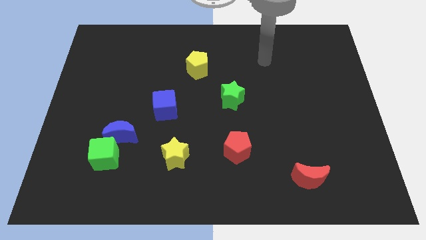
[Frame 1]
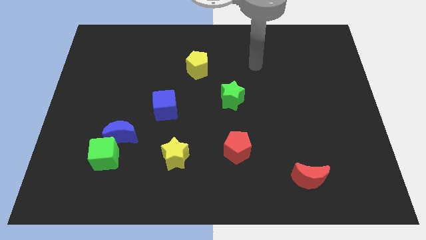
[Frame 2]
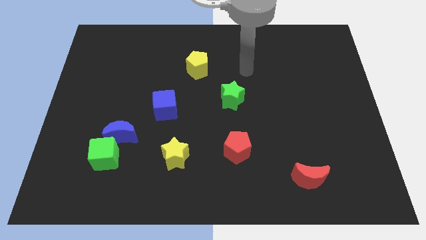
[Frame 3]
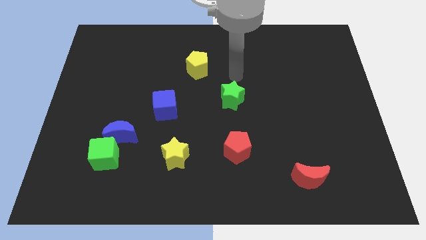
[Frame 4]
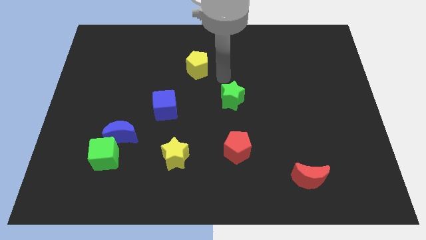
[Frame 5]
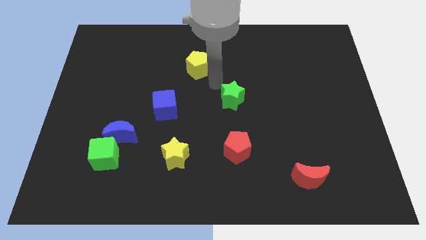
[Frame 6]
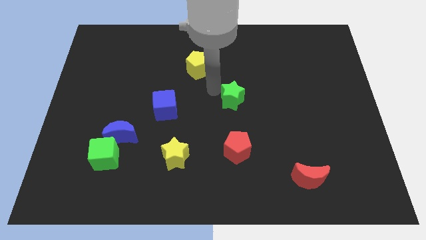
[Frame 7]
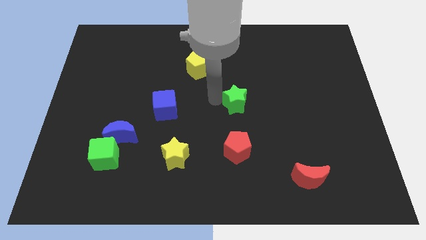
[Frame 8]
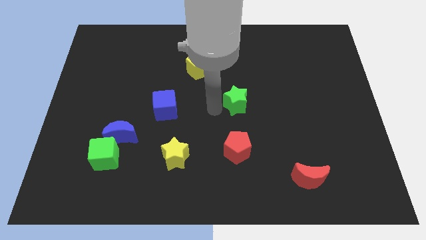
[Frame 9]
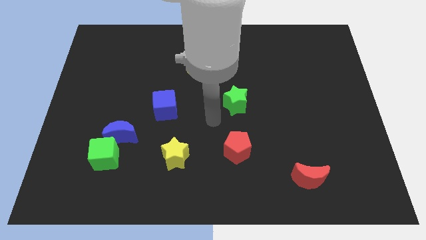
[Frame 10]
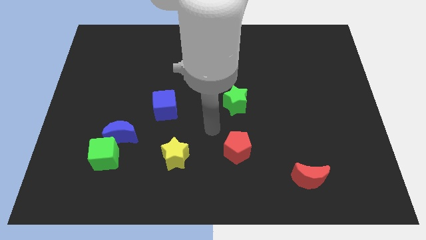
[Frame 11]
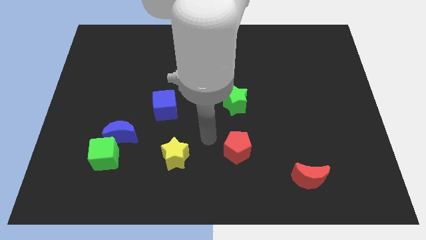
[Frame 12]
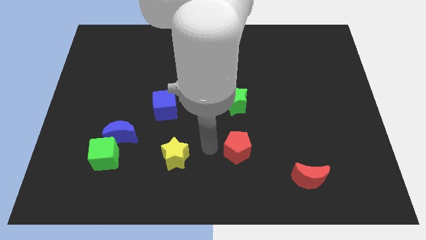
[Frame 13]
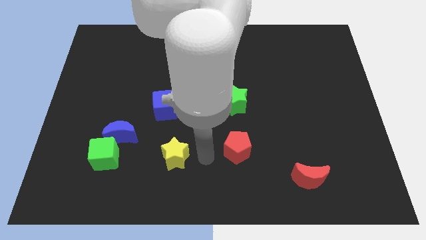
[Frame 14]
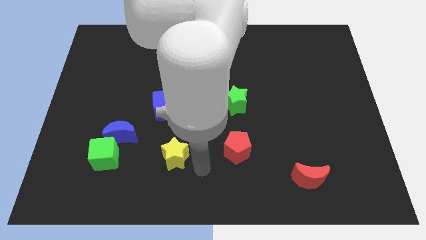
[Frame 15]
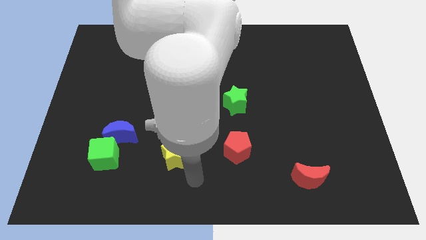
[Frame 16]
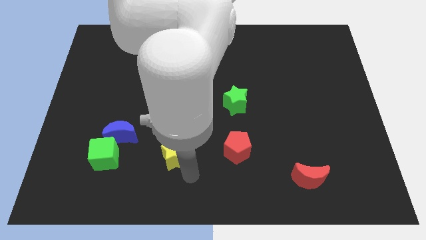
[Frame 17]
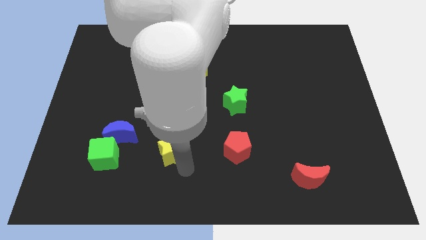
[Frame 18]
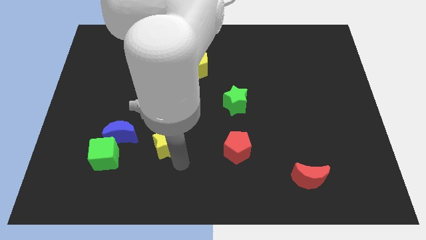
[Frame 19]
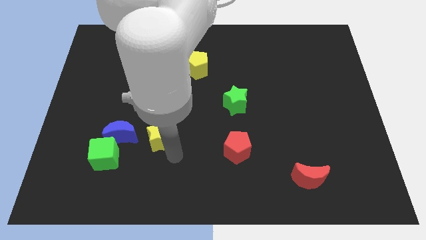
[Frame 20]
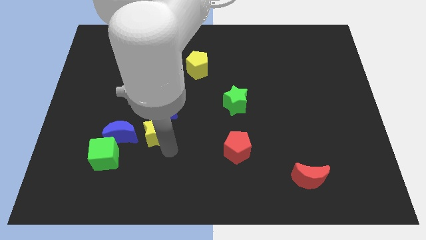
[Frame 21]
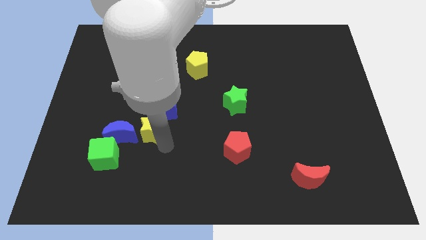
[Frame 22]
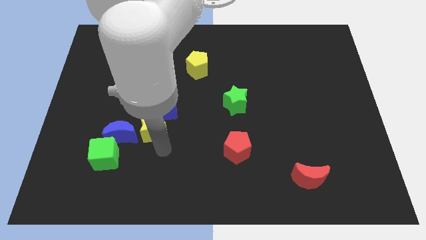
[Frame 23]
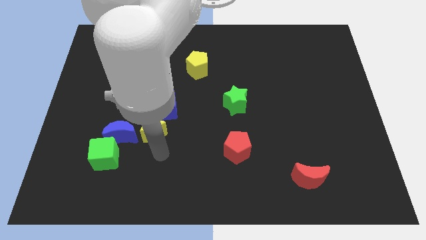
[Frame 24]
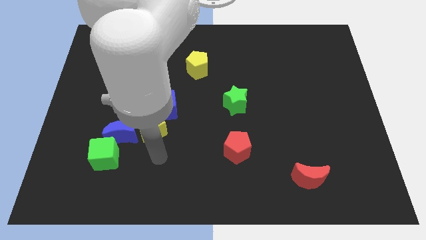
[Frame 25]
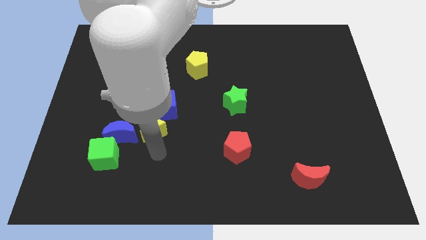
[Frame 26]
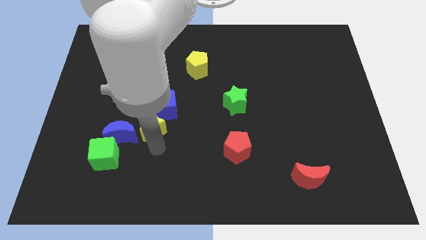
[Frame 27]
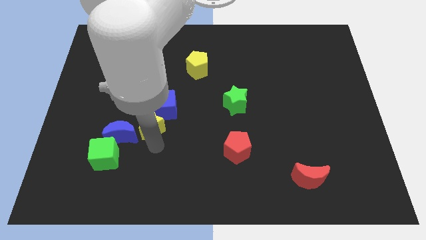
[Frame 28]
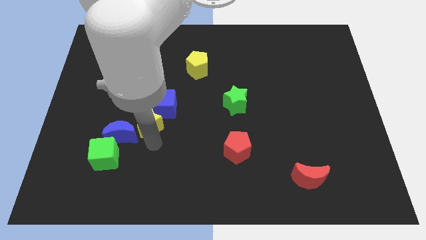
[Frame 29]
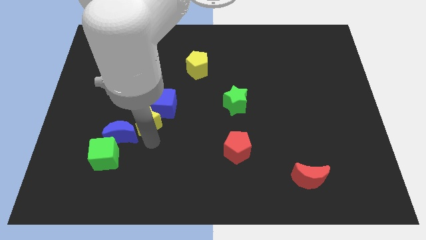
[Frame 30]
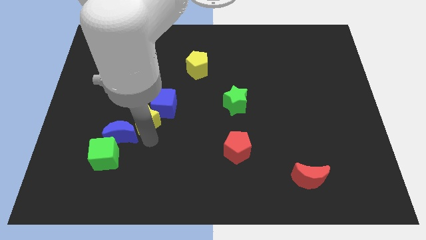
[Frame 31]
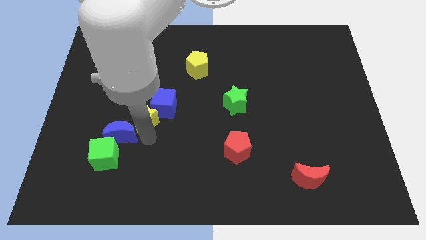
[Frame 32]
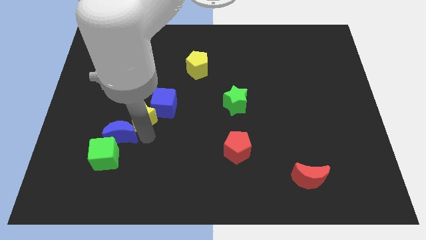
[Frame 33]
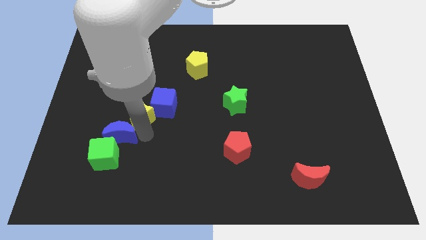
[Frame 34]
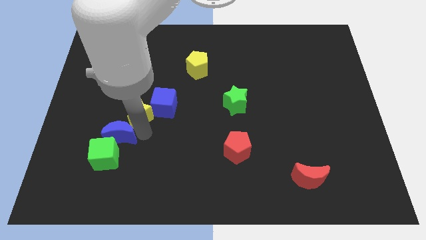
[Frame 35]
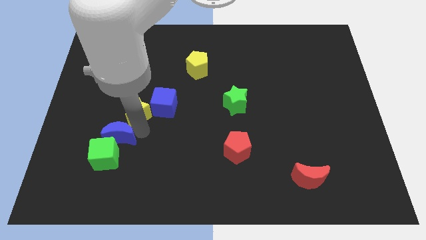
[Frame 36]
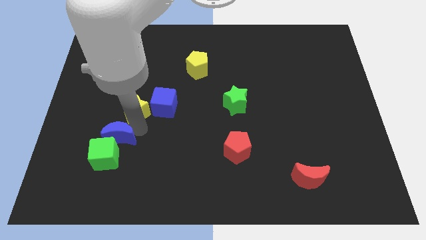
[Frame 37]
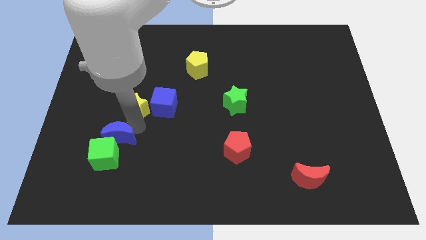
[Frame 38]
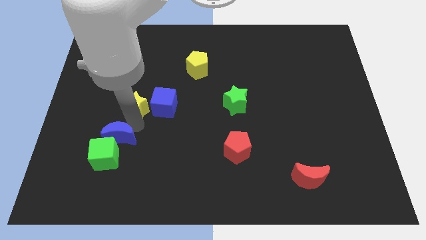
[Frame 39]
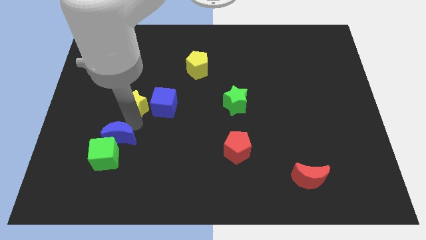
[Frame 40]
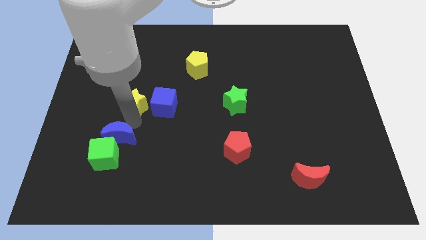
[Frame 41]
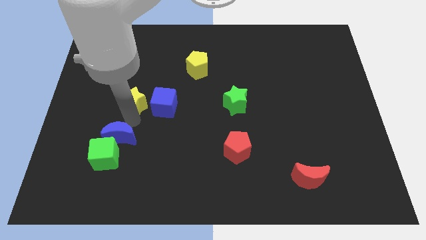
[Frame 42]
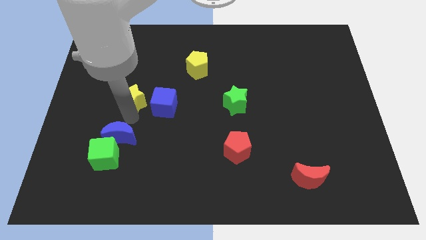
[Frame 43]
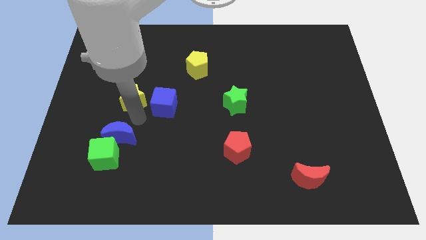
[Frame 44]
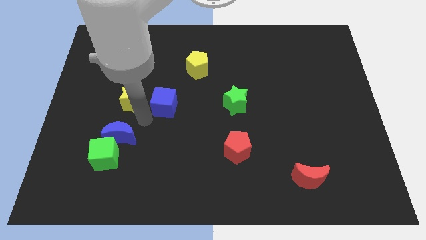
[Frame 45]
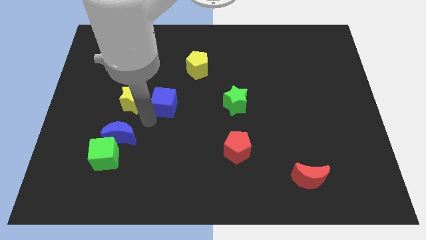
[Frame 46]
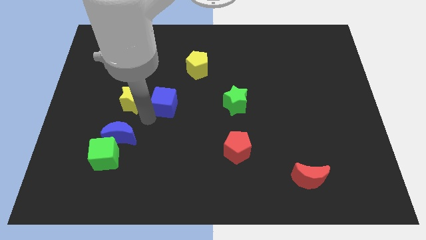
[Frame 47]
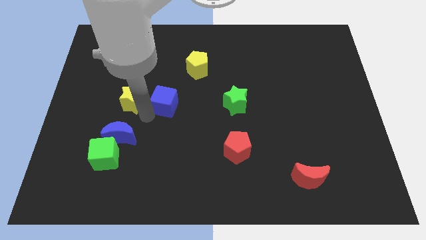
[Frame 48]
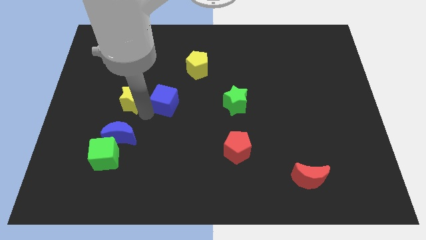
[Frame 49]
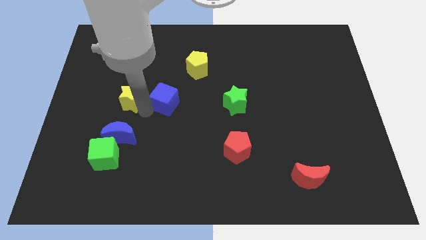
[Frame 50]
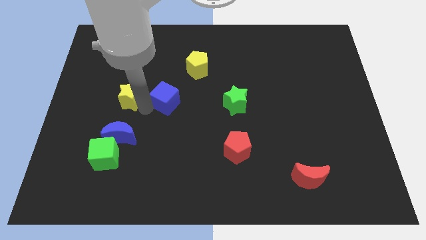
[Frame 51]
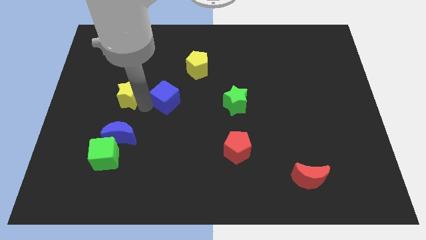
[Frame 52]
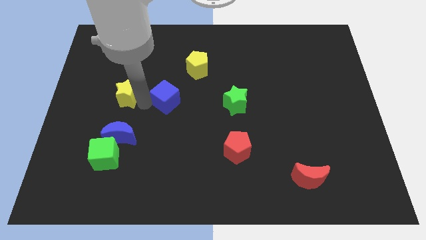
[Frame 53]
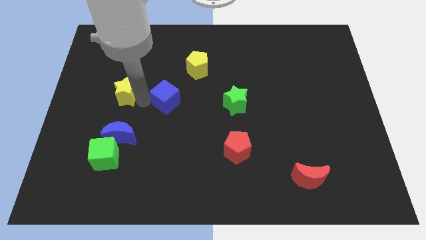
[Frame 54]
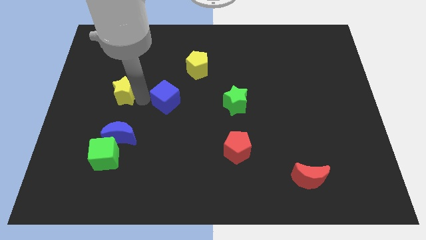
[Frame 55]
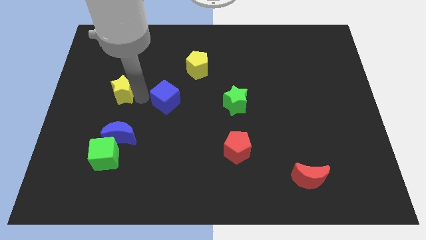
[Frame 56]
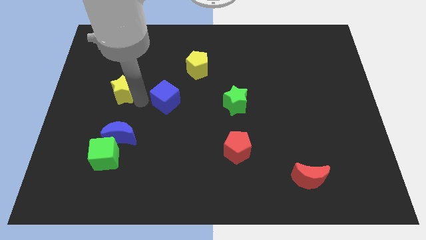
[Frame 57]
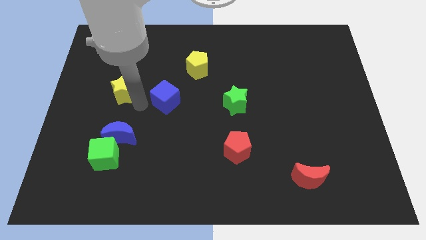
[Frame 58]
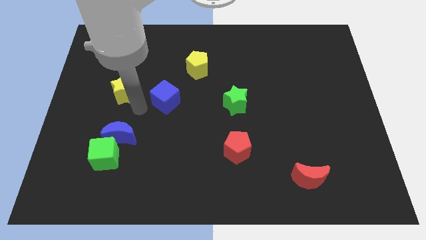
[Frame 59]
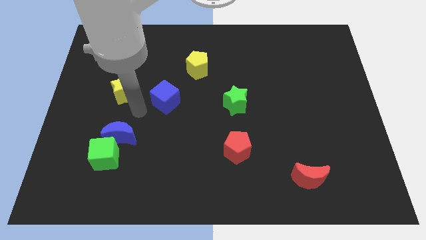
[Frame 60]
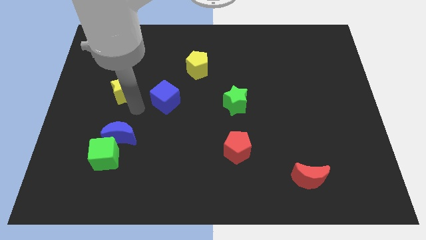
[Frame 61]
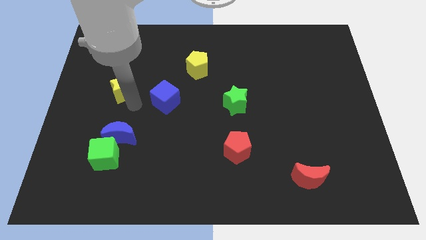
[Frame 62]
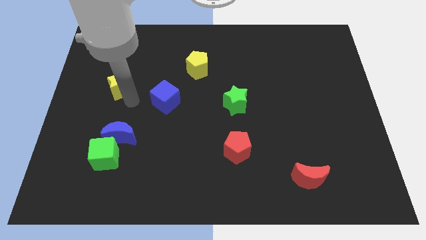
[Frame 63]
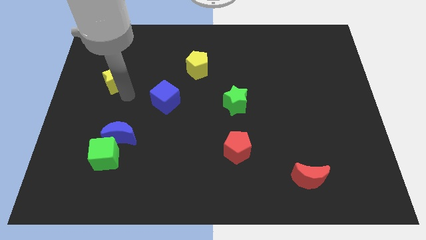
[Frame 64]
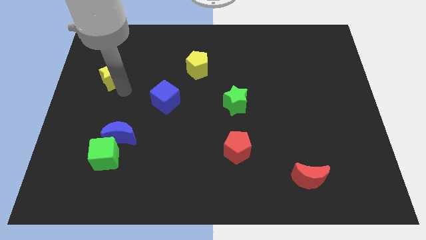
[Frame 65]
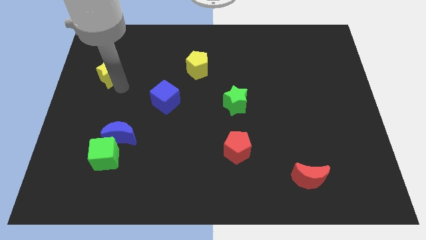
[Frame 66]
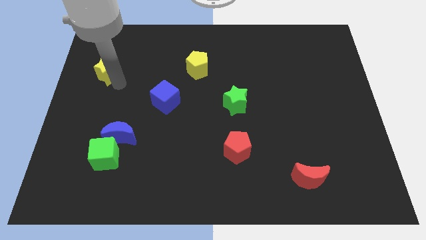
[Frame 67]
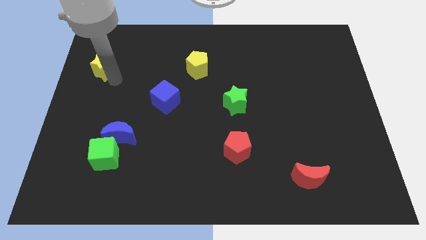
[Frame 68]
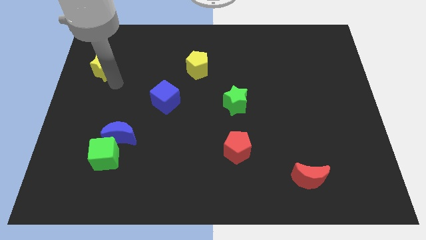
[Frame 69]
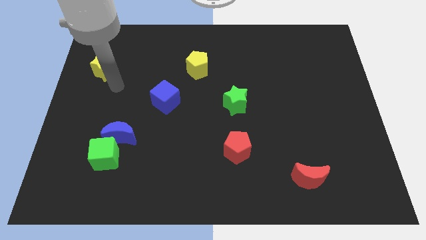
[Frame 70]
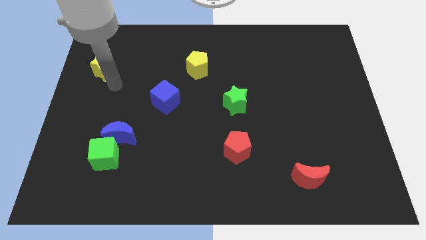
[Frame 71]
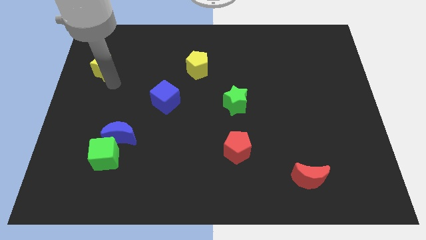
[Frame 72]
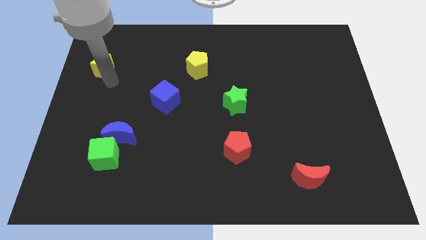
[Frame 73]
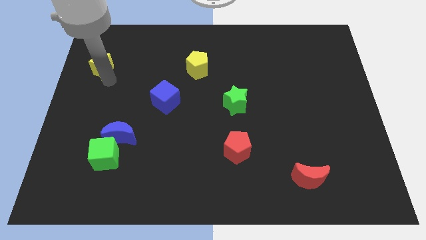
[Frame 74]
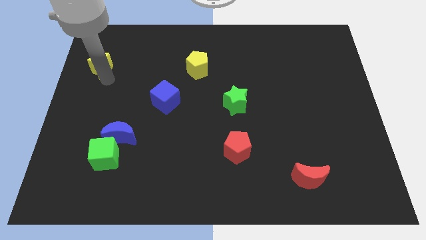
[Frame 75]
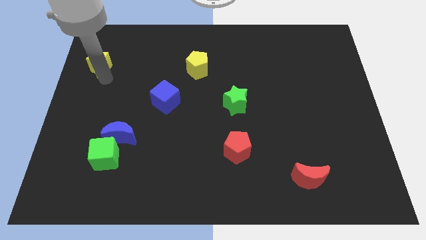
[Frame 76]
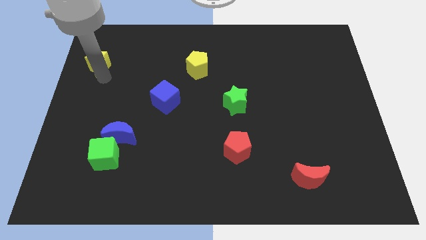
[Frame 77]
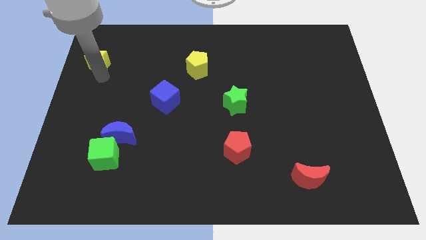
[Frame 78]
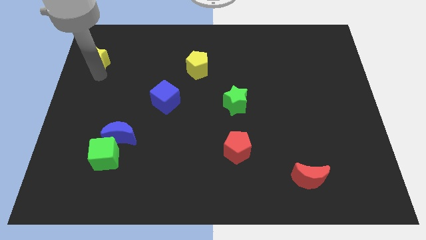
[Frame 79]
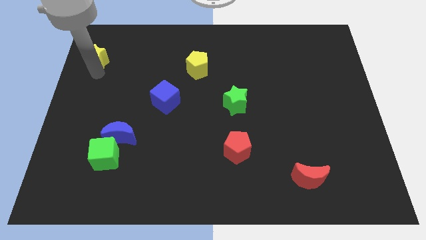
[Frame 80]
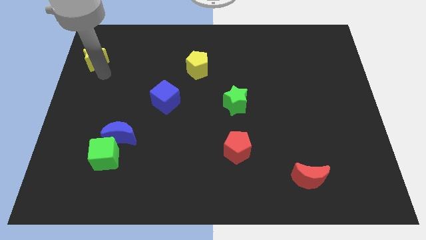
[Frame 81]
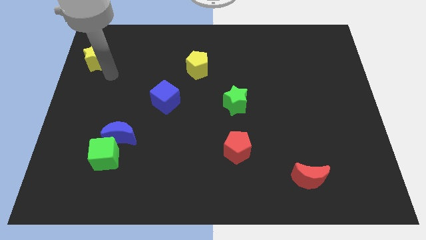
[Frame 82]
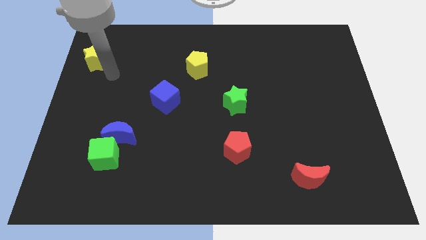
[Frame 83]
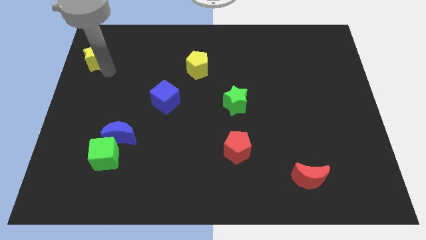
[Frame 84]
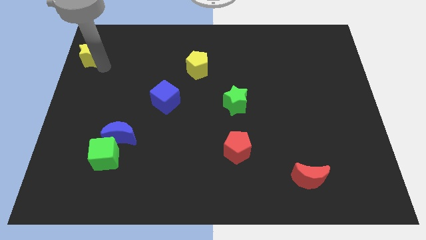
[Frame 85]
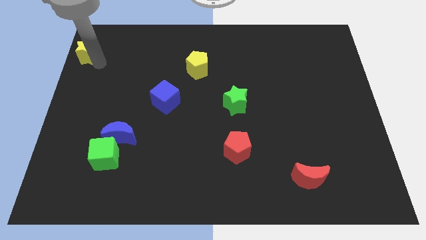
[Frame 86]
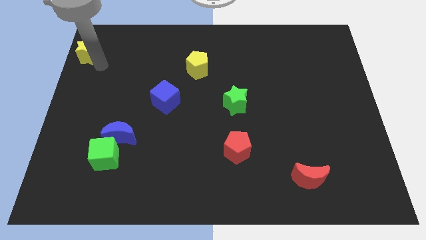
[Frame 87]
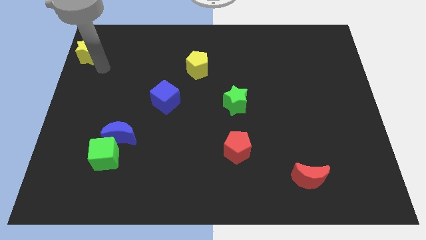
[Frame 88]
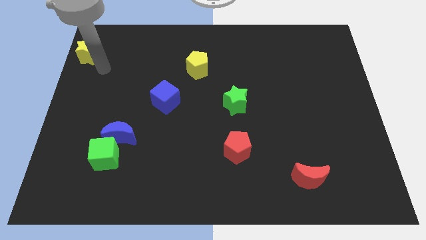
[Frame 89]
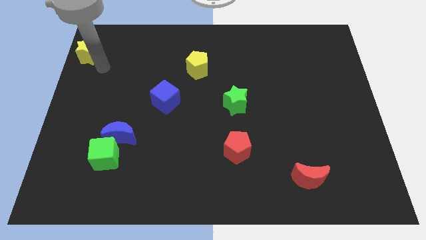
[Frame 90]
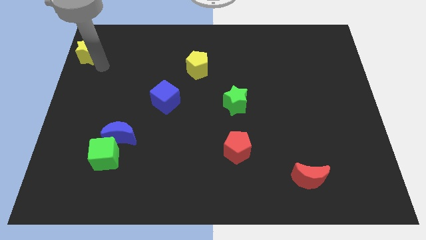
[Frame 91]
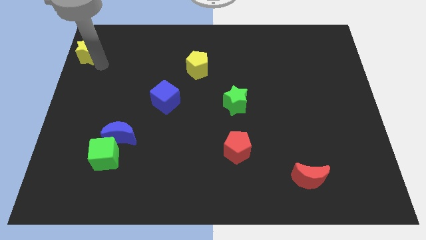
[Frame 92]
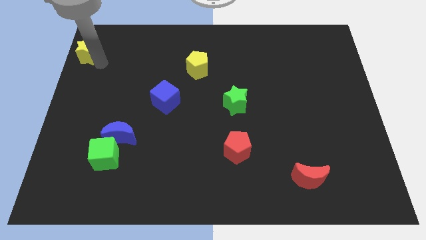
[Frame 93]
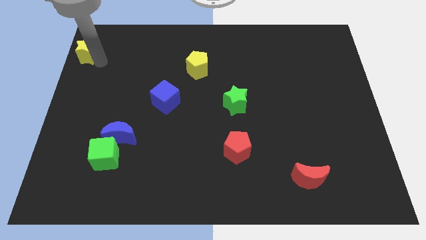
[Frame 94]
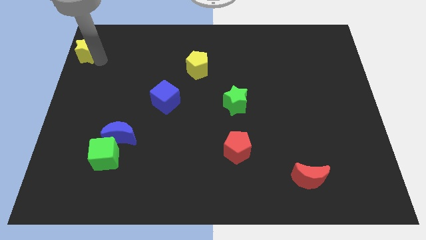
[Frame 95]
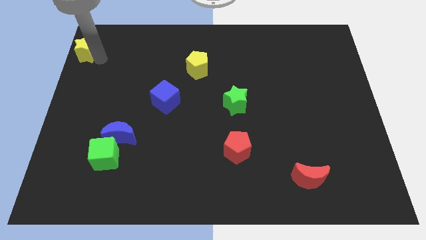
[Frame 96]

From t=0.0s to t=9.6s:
put the yellow star to the top left
